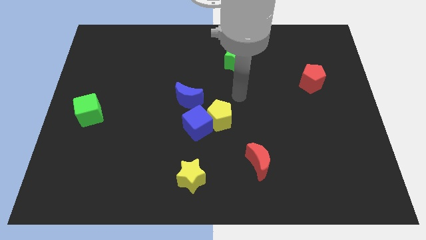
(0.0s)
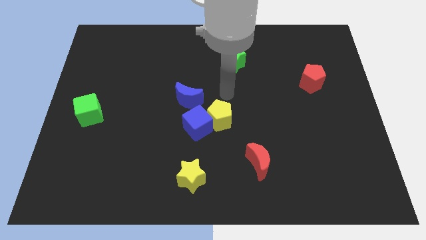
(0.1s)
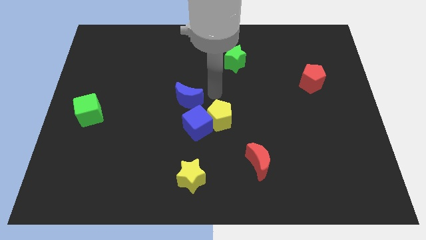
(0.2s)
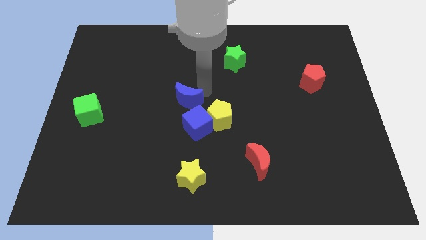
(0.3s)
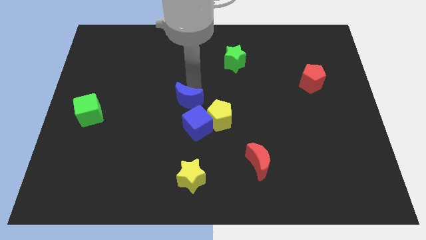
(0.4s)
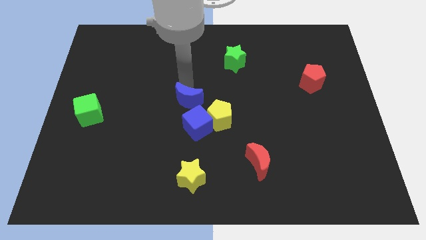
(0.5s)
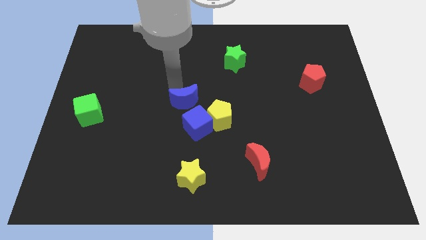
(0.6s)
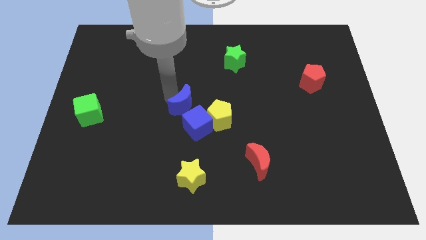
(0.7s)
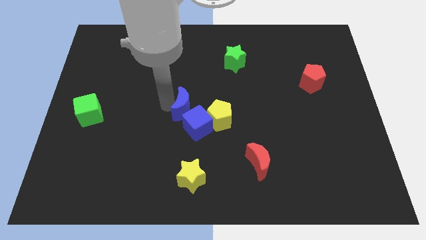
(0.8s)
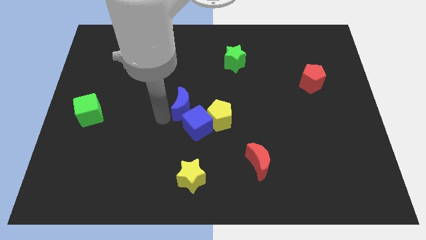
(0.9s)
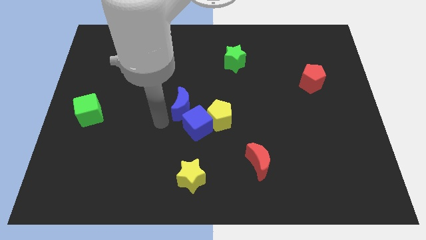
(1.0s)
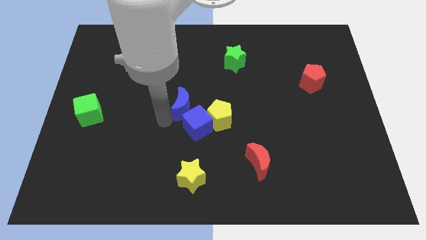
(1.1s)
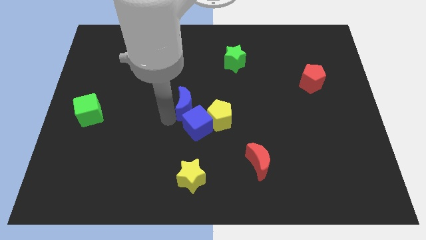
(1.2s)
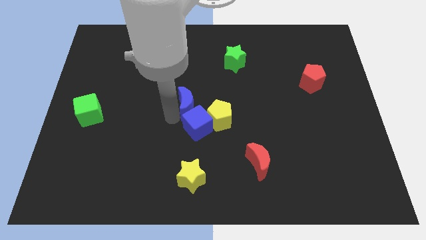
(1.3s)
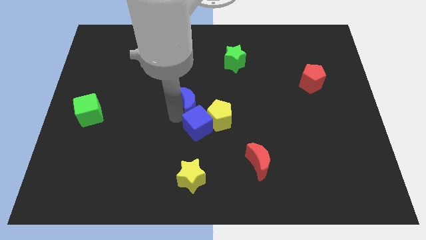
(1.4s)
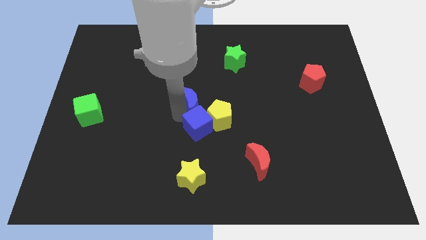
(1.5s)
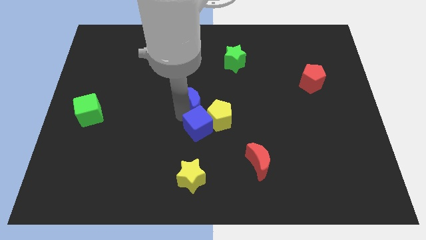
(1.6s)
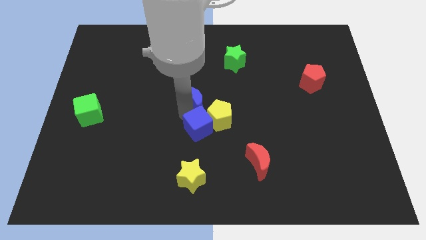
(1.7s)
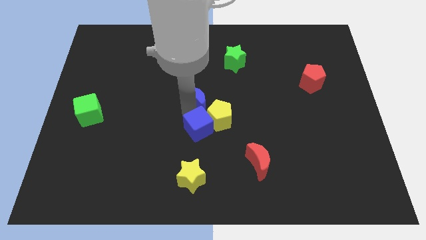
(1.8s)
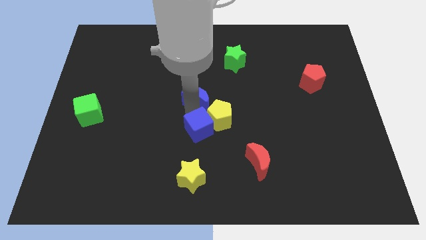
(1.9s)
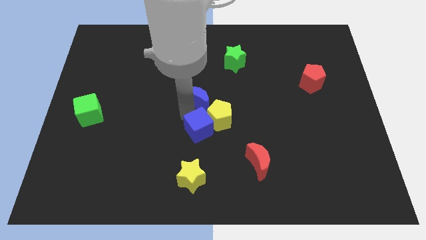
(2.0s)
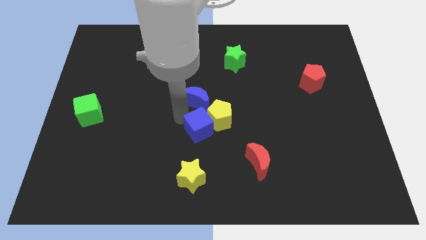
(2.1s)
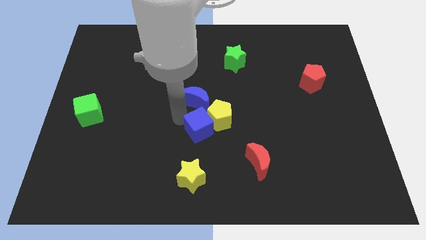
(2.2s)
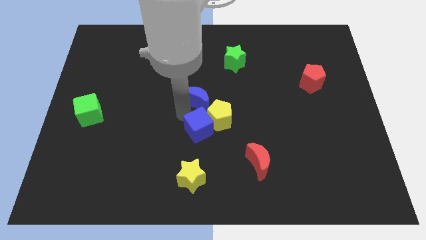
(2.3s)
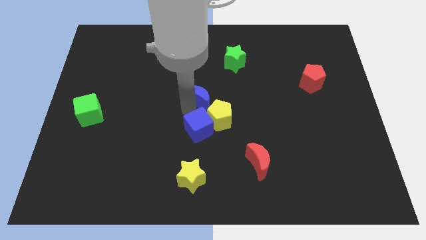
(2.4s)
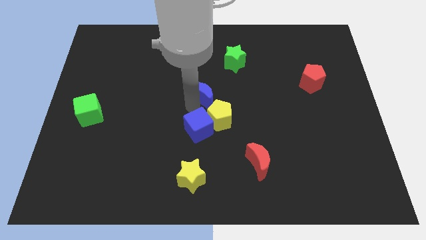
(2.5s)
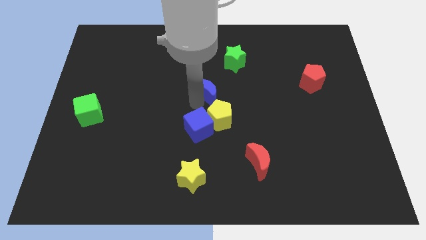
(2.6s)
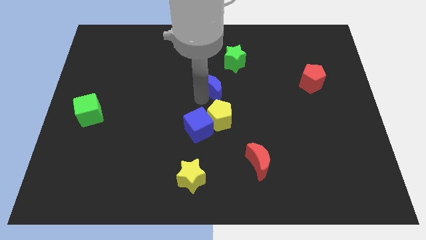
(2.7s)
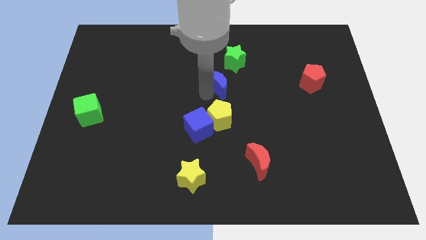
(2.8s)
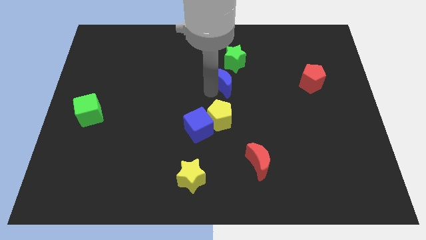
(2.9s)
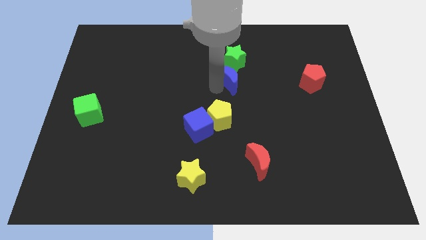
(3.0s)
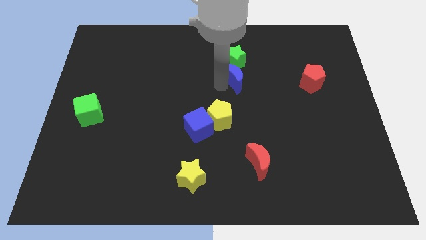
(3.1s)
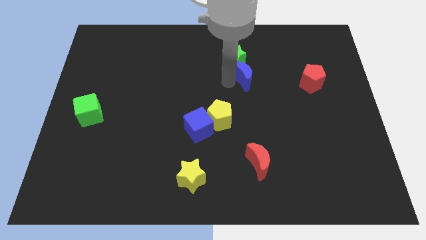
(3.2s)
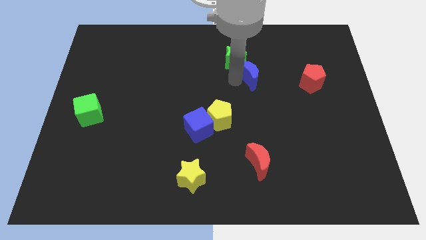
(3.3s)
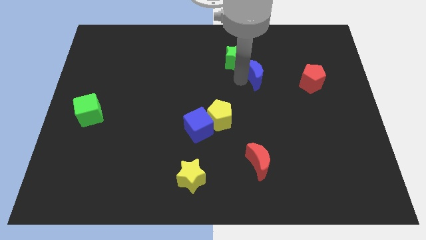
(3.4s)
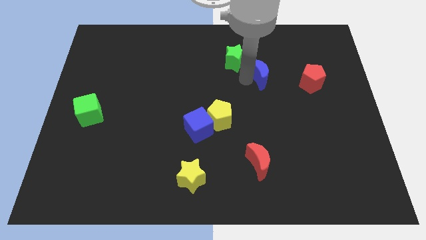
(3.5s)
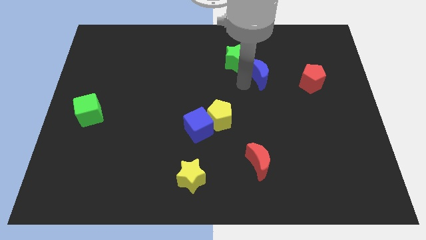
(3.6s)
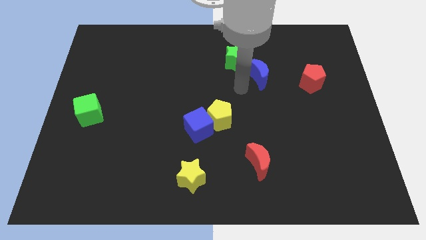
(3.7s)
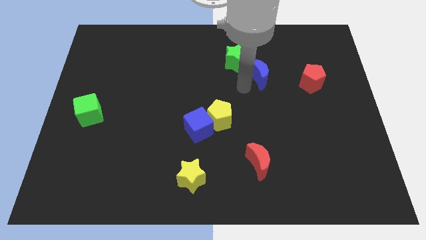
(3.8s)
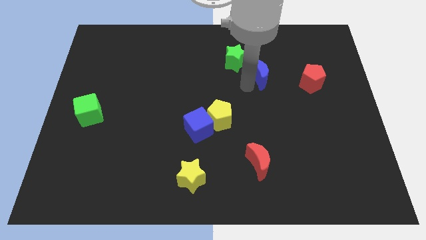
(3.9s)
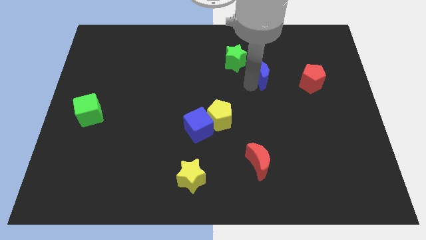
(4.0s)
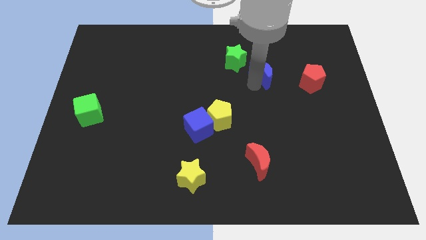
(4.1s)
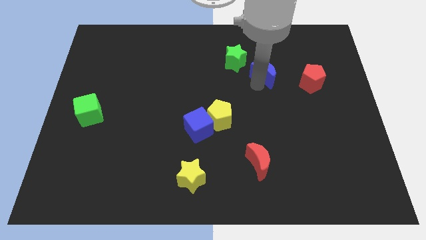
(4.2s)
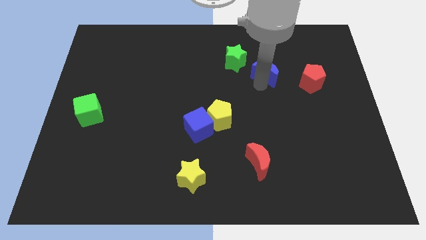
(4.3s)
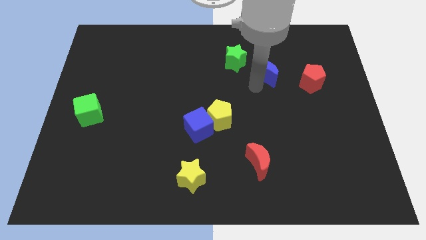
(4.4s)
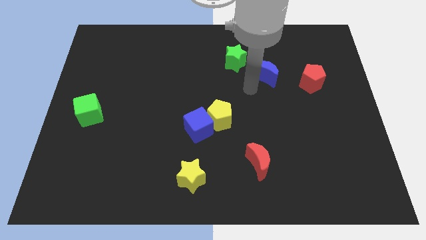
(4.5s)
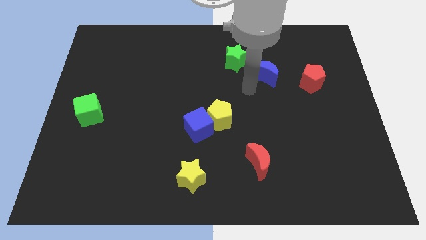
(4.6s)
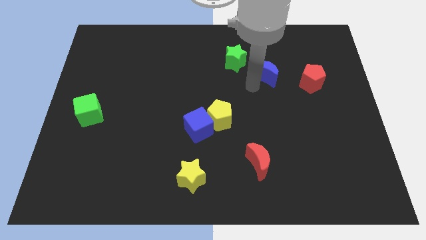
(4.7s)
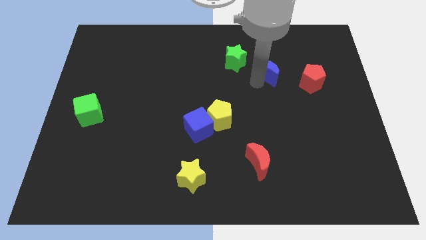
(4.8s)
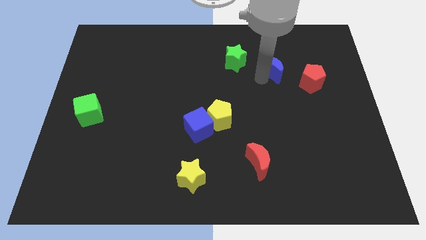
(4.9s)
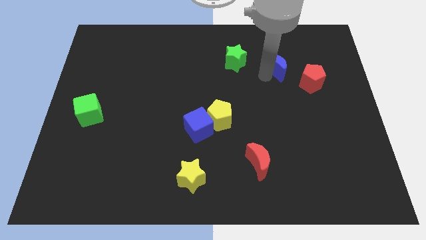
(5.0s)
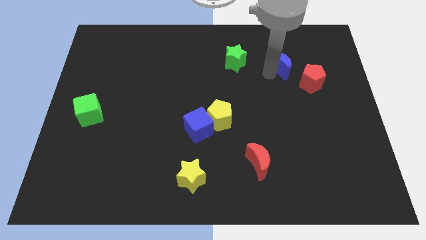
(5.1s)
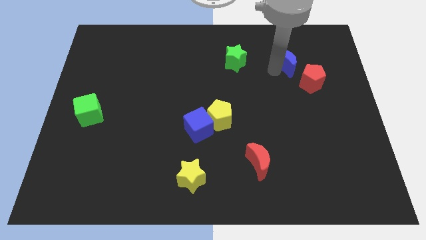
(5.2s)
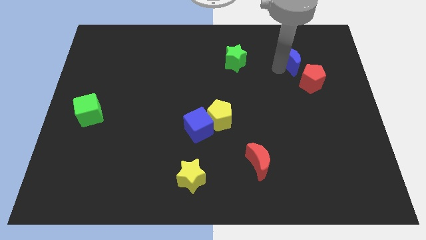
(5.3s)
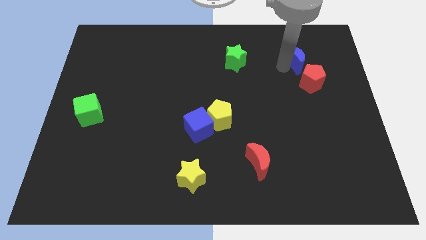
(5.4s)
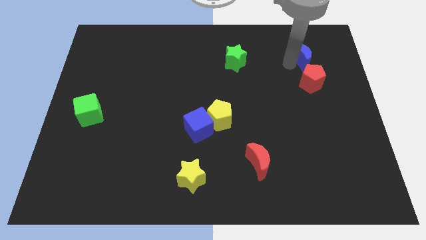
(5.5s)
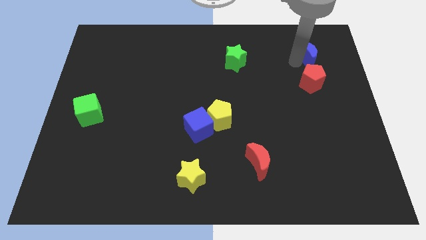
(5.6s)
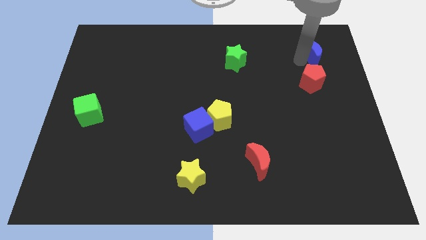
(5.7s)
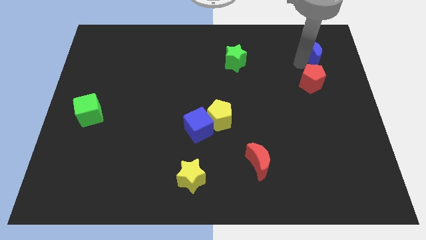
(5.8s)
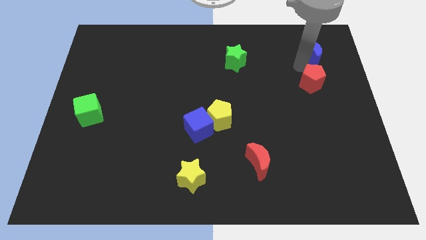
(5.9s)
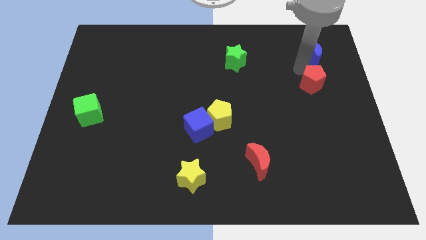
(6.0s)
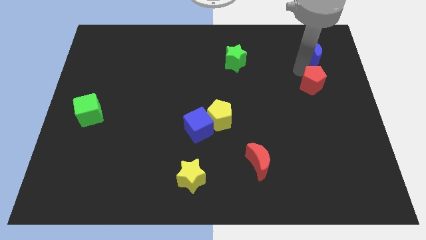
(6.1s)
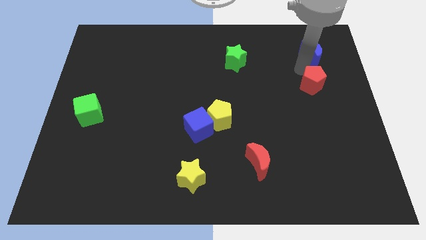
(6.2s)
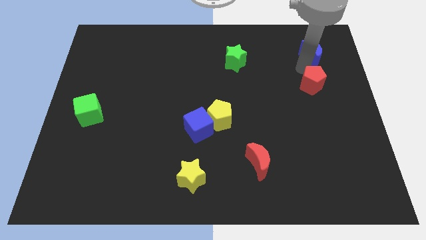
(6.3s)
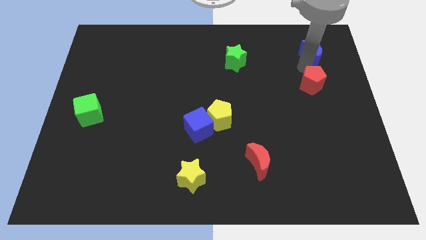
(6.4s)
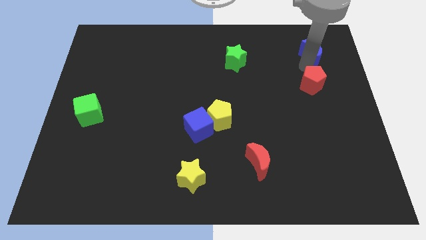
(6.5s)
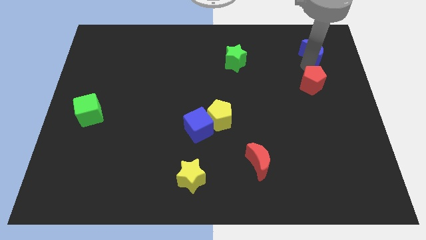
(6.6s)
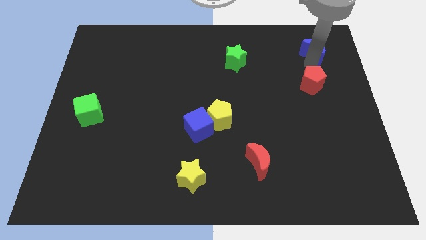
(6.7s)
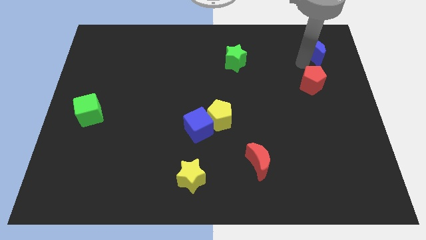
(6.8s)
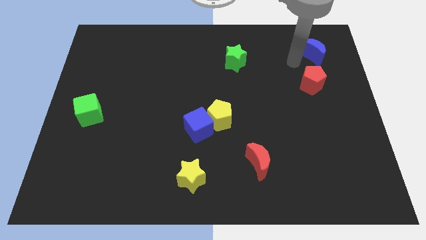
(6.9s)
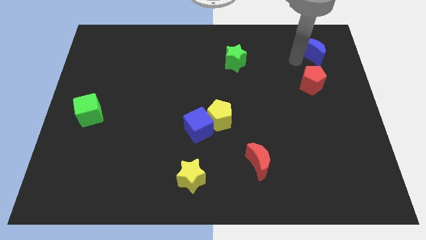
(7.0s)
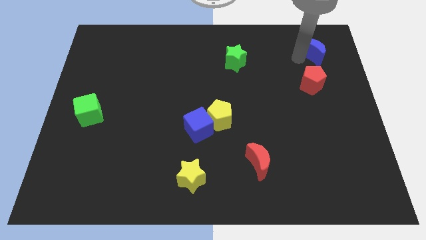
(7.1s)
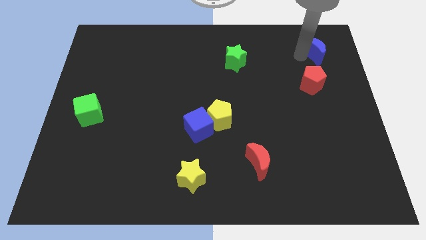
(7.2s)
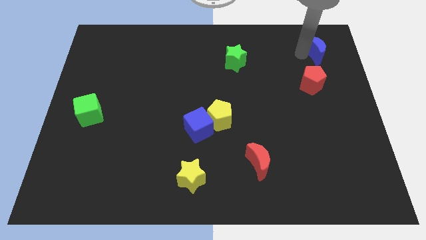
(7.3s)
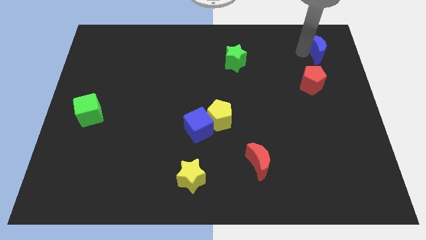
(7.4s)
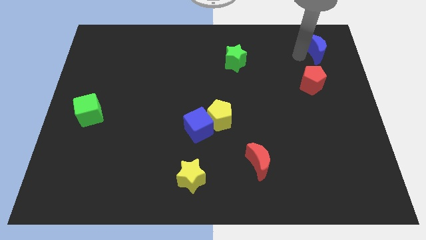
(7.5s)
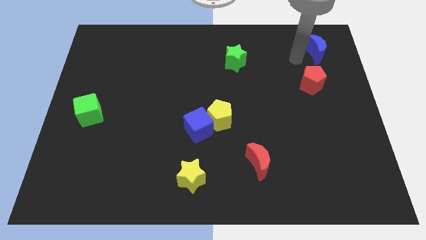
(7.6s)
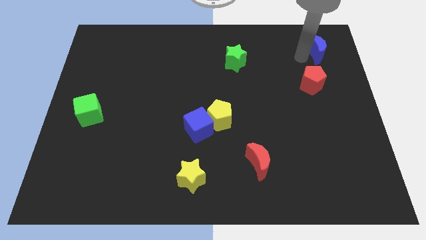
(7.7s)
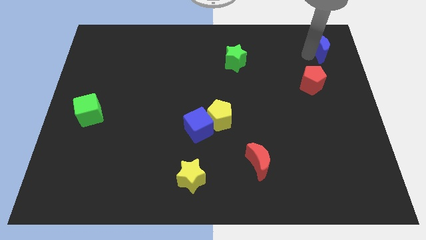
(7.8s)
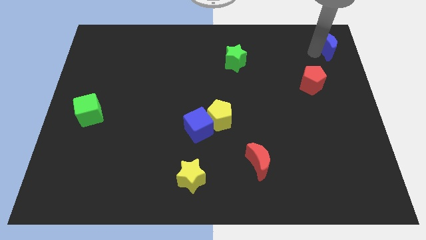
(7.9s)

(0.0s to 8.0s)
put the blue moon to the top right corner
